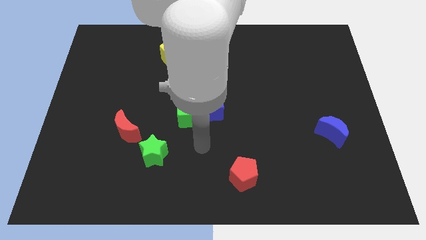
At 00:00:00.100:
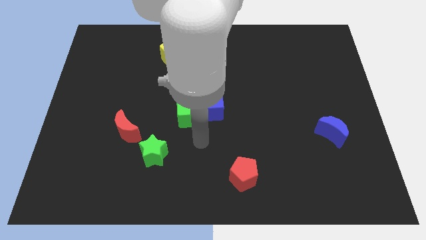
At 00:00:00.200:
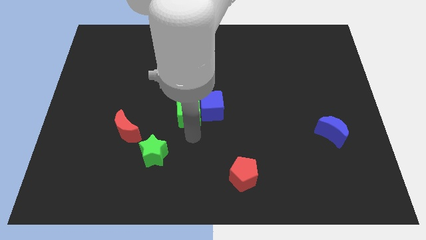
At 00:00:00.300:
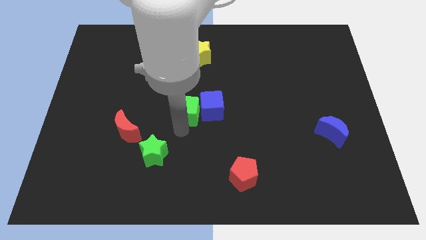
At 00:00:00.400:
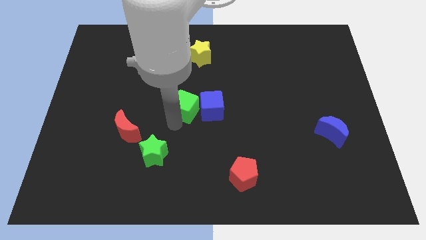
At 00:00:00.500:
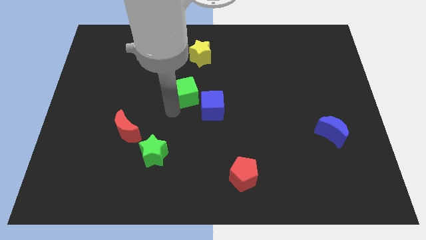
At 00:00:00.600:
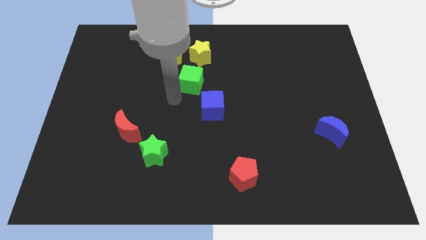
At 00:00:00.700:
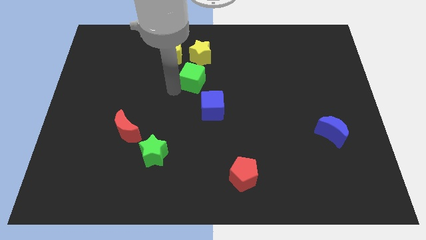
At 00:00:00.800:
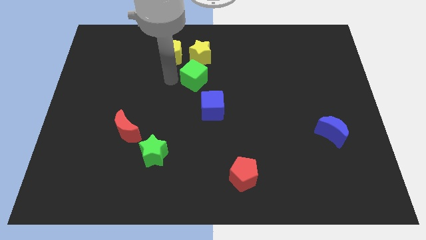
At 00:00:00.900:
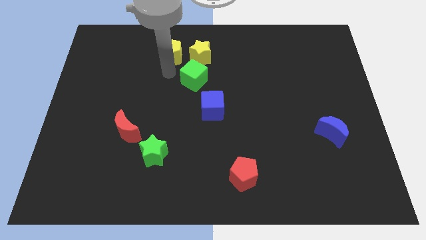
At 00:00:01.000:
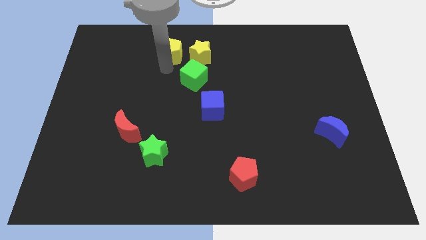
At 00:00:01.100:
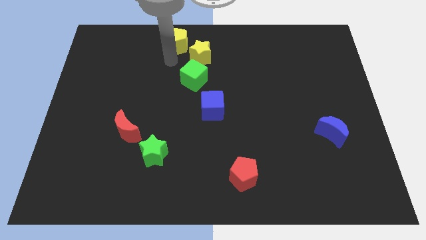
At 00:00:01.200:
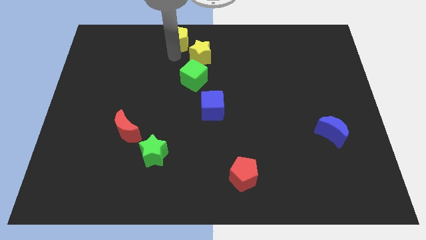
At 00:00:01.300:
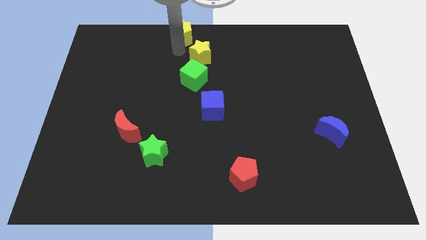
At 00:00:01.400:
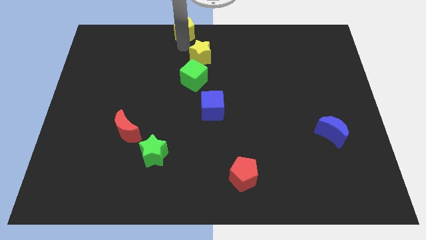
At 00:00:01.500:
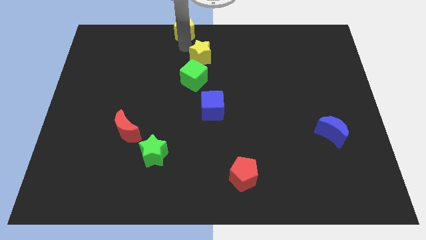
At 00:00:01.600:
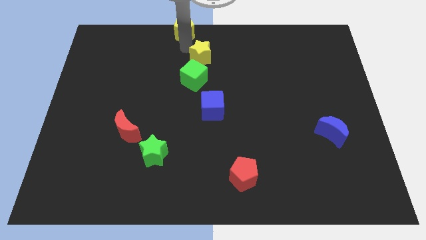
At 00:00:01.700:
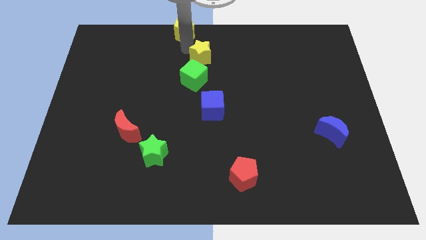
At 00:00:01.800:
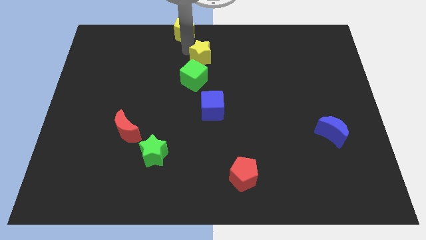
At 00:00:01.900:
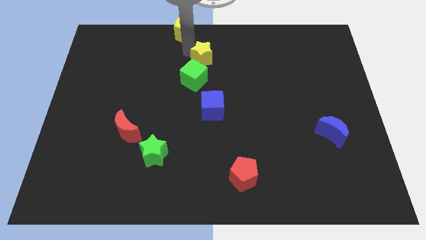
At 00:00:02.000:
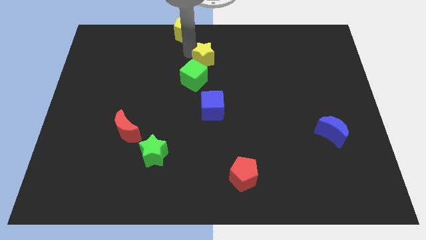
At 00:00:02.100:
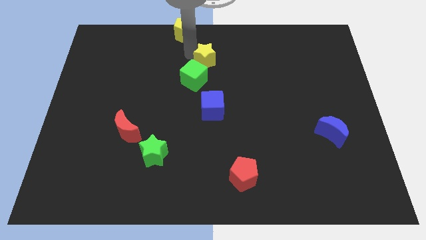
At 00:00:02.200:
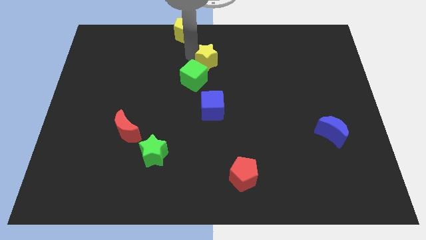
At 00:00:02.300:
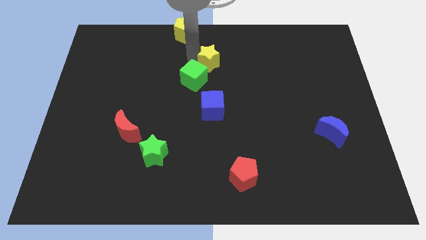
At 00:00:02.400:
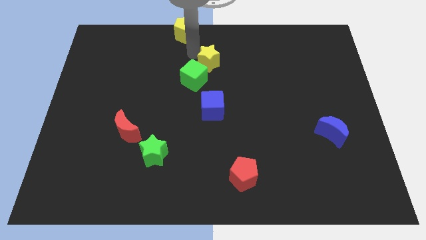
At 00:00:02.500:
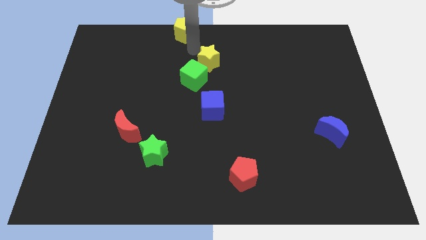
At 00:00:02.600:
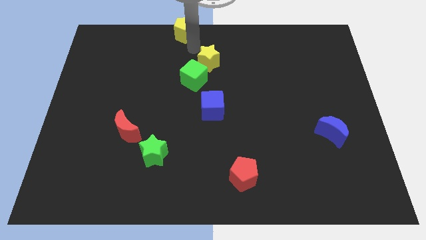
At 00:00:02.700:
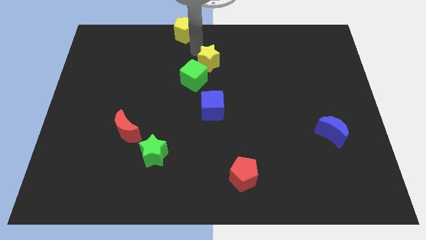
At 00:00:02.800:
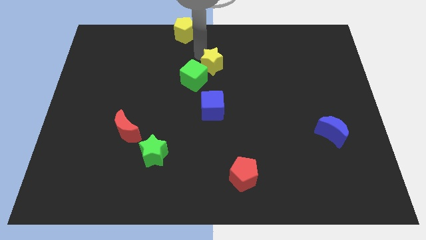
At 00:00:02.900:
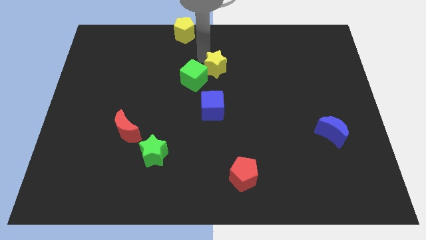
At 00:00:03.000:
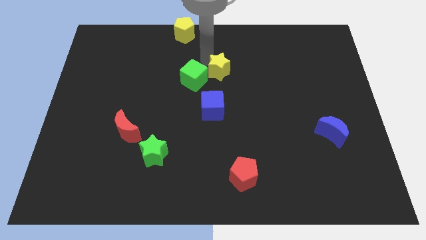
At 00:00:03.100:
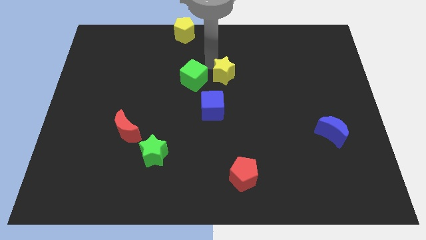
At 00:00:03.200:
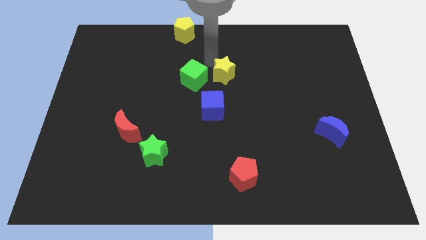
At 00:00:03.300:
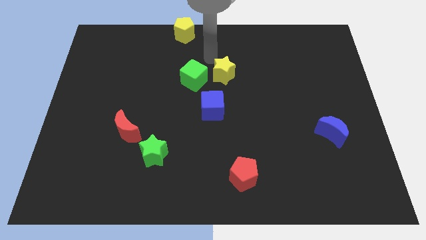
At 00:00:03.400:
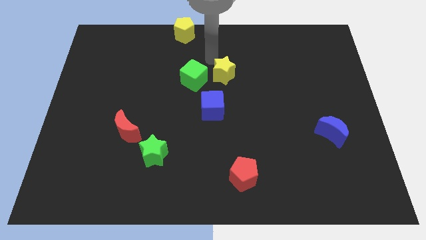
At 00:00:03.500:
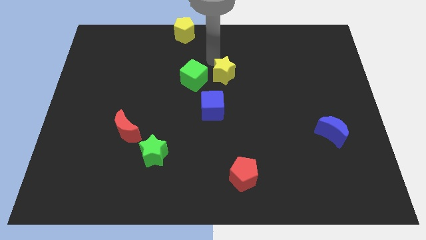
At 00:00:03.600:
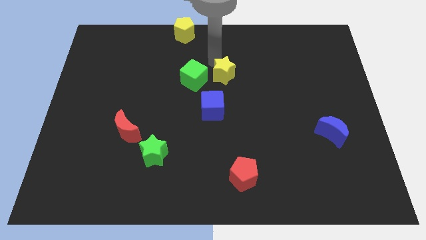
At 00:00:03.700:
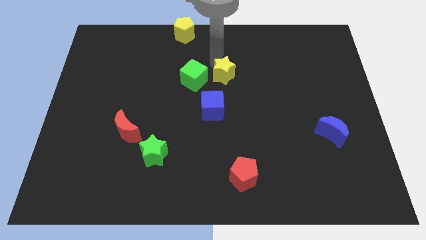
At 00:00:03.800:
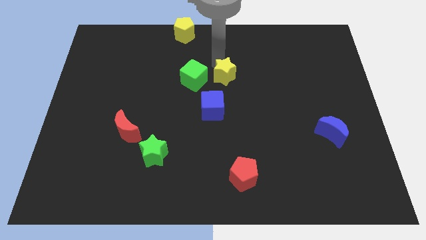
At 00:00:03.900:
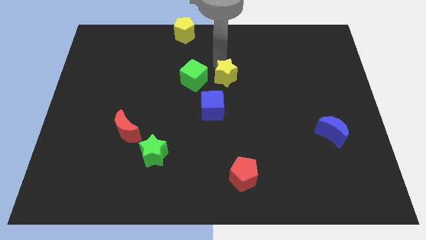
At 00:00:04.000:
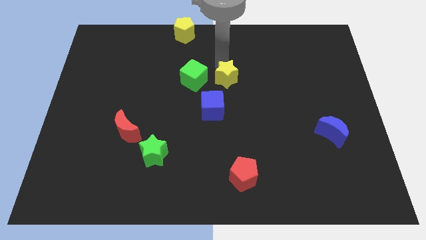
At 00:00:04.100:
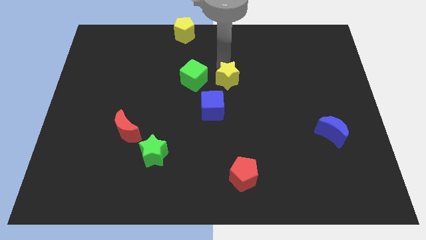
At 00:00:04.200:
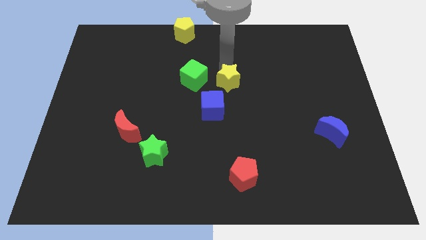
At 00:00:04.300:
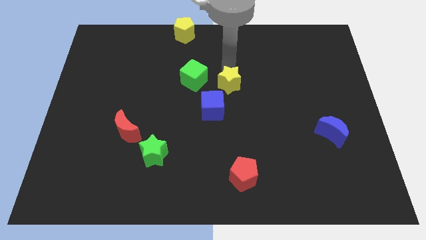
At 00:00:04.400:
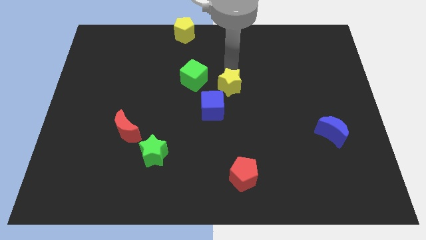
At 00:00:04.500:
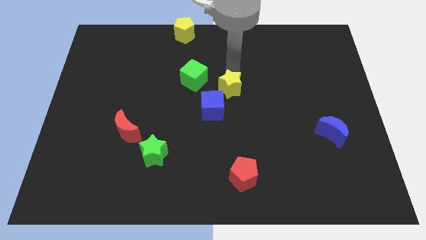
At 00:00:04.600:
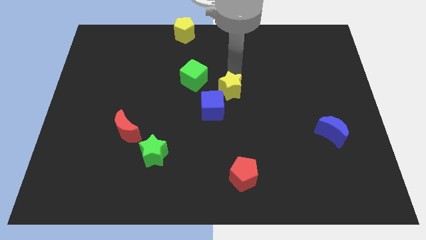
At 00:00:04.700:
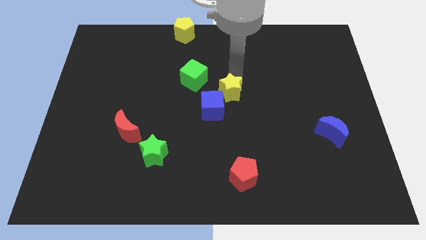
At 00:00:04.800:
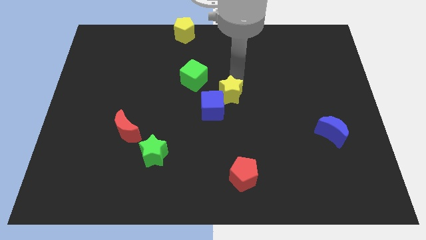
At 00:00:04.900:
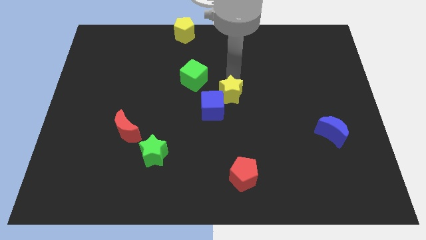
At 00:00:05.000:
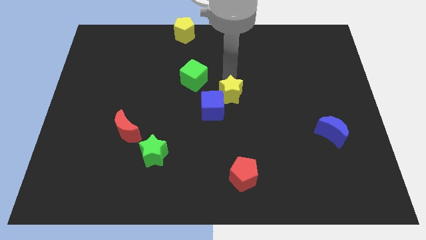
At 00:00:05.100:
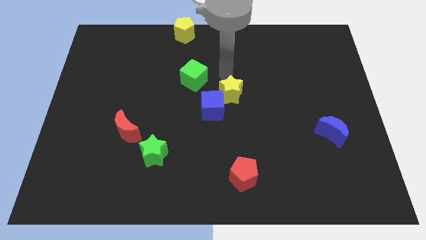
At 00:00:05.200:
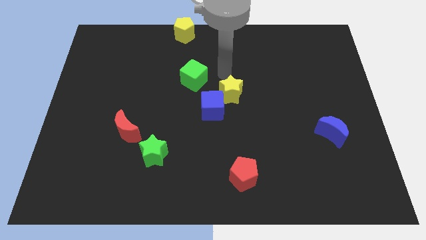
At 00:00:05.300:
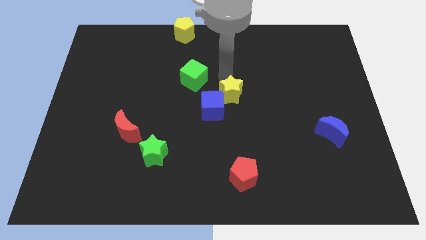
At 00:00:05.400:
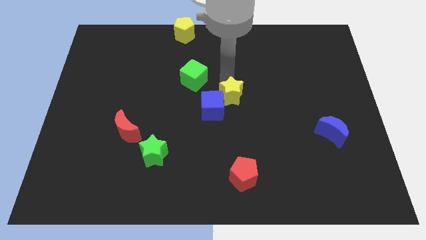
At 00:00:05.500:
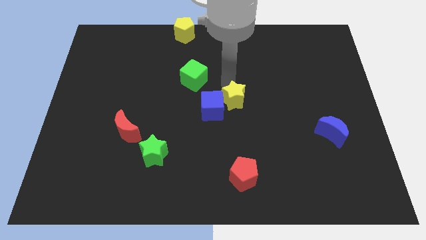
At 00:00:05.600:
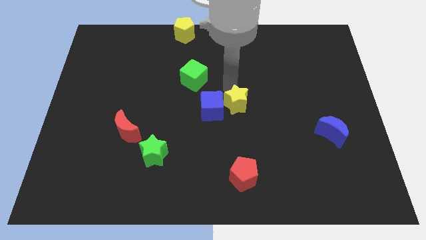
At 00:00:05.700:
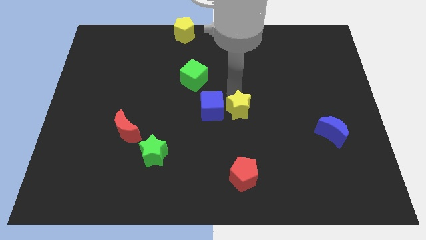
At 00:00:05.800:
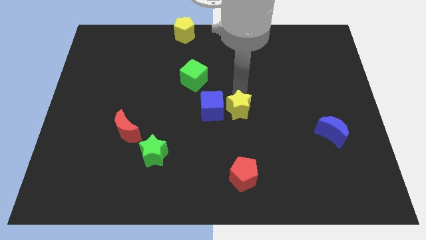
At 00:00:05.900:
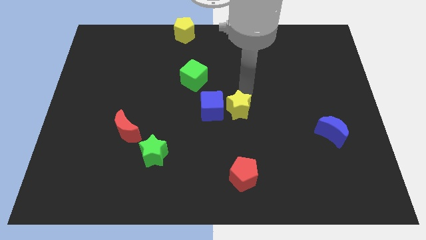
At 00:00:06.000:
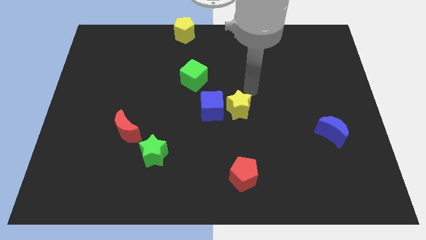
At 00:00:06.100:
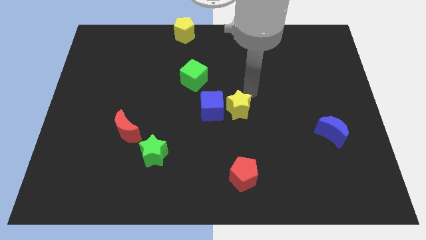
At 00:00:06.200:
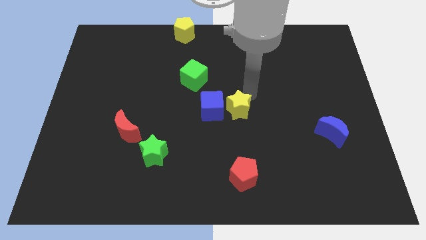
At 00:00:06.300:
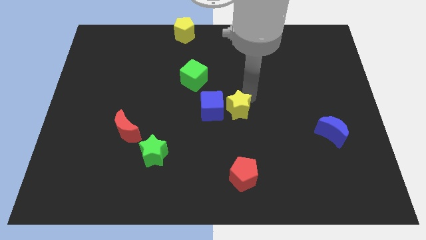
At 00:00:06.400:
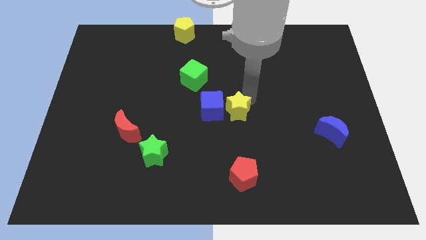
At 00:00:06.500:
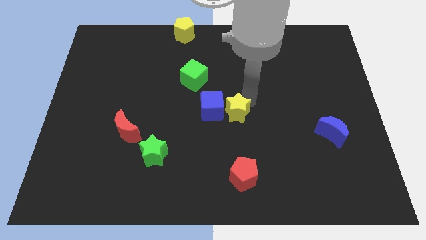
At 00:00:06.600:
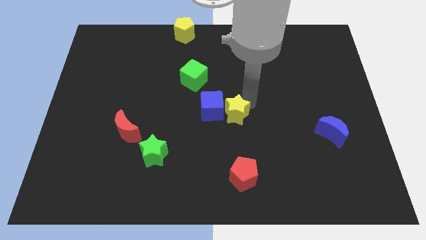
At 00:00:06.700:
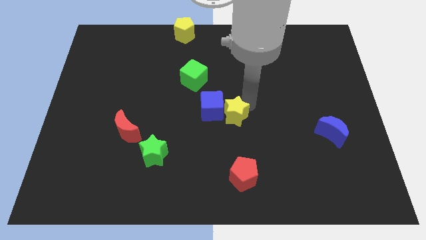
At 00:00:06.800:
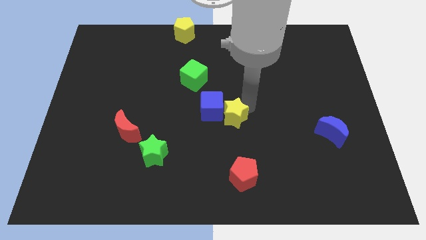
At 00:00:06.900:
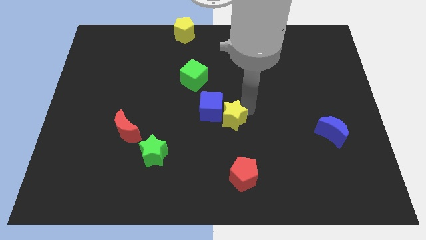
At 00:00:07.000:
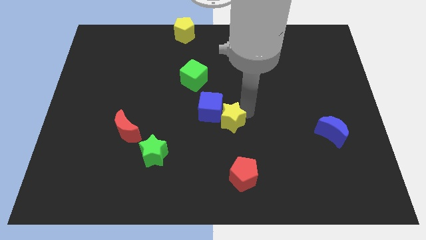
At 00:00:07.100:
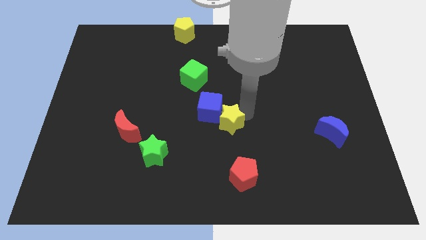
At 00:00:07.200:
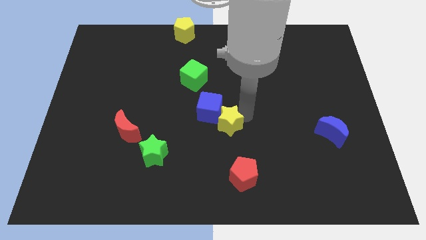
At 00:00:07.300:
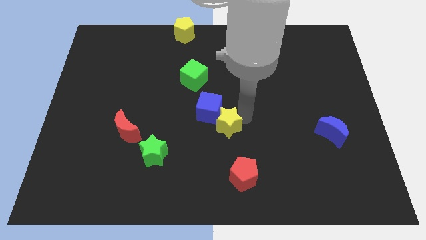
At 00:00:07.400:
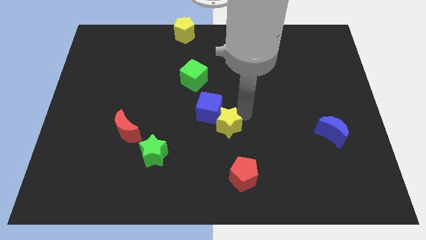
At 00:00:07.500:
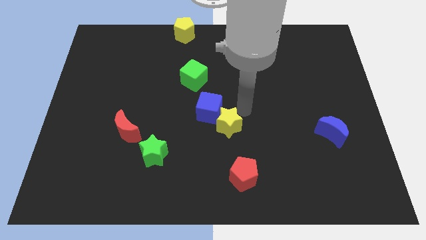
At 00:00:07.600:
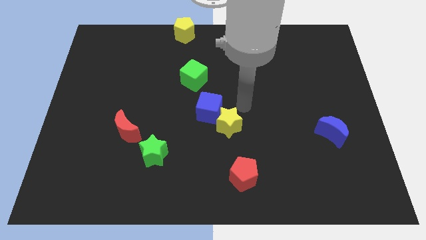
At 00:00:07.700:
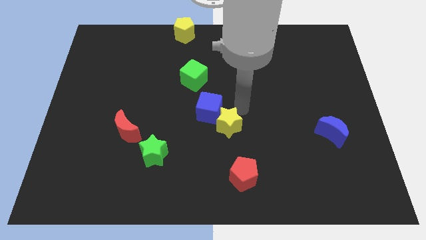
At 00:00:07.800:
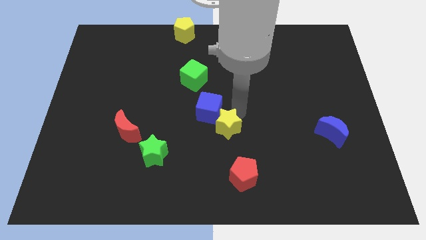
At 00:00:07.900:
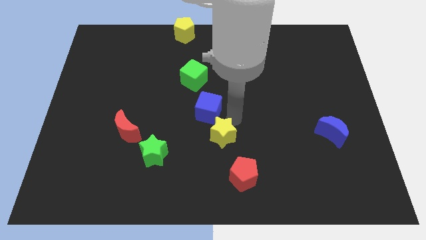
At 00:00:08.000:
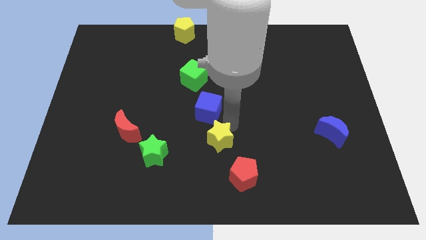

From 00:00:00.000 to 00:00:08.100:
push the yellow star to the right side of the green star
